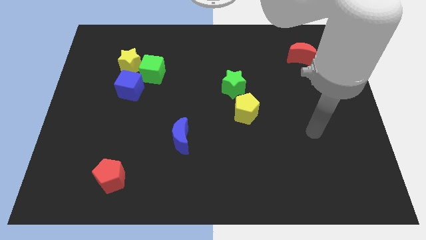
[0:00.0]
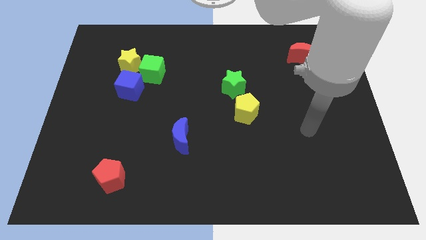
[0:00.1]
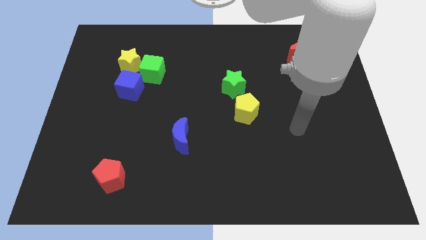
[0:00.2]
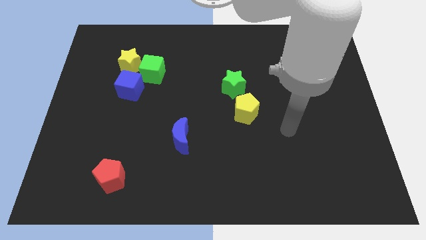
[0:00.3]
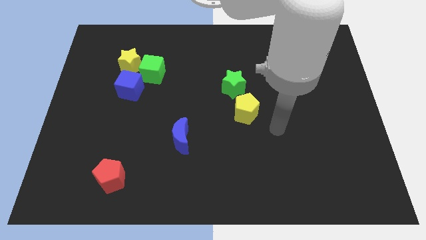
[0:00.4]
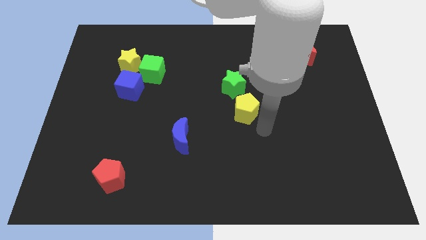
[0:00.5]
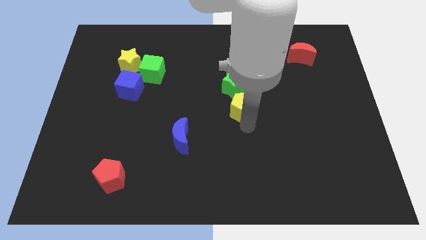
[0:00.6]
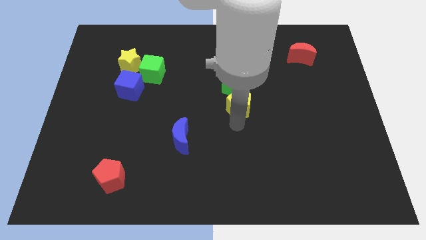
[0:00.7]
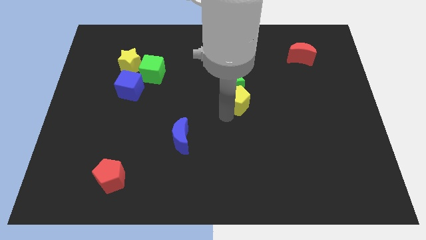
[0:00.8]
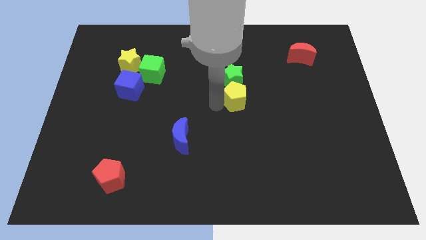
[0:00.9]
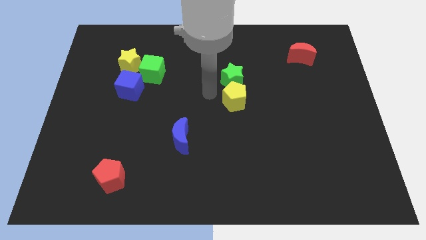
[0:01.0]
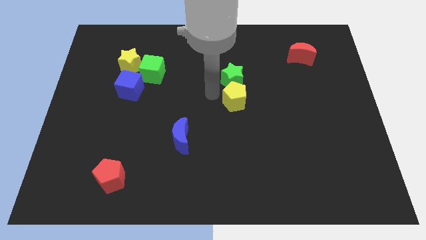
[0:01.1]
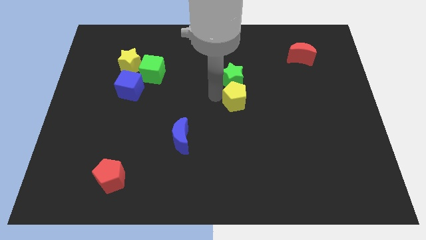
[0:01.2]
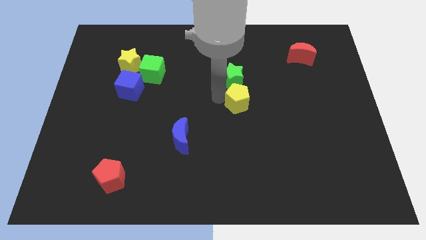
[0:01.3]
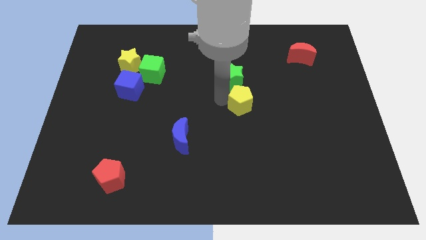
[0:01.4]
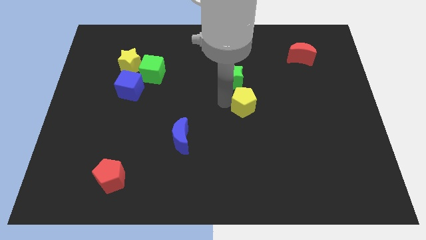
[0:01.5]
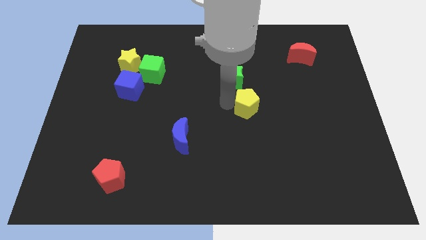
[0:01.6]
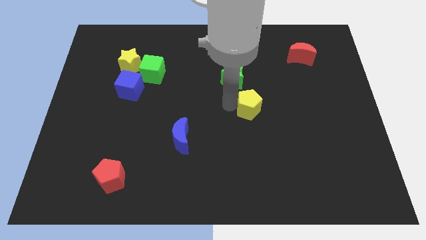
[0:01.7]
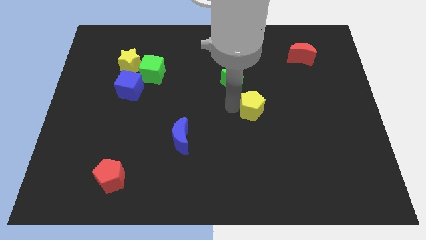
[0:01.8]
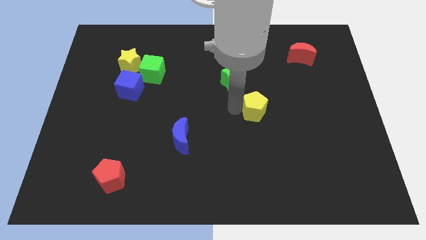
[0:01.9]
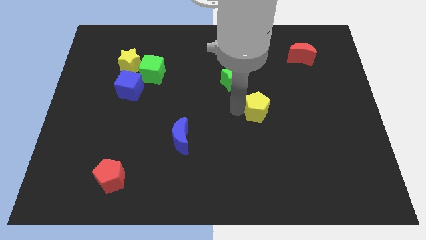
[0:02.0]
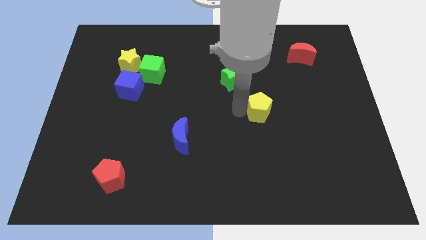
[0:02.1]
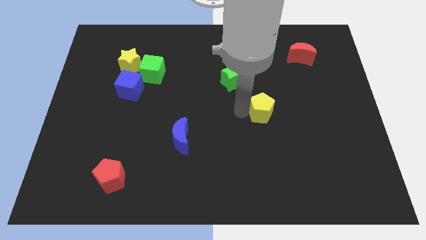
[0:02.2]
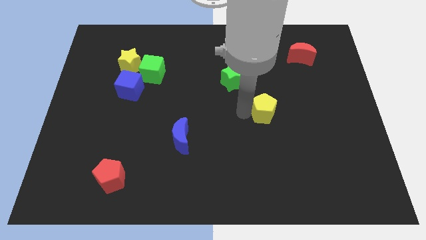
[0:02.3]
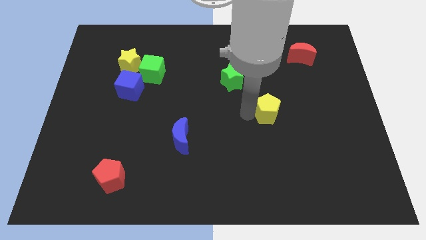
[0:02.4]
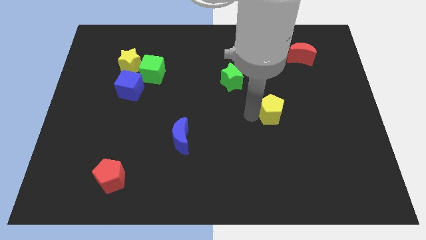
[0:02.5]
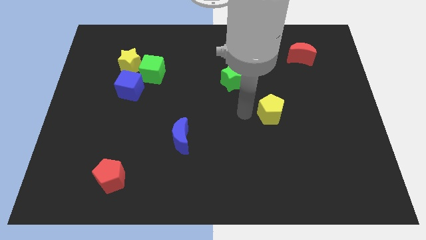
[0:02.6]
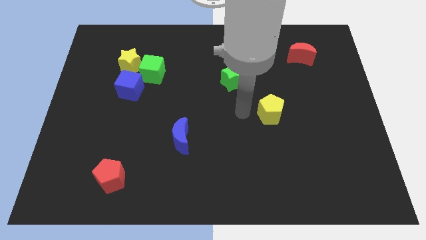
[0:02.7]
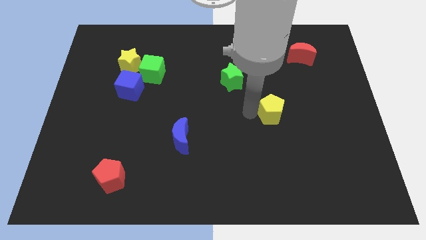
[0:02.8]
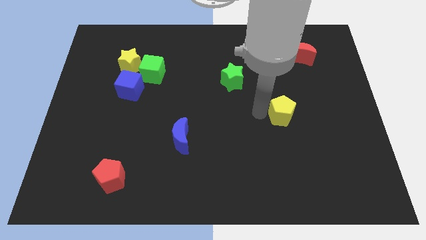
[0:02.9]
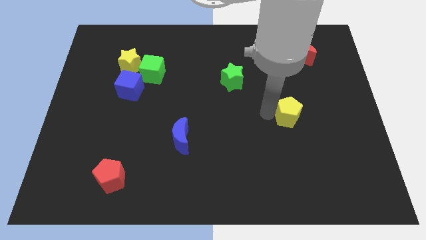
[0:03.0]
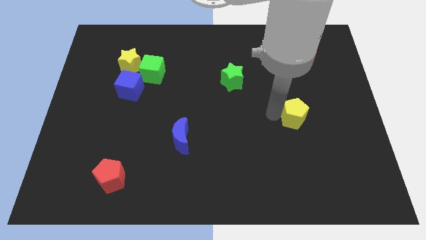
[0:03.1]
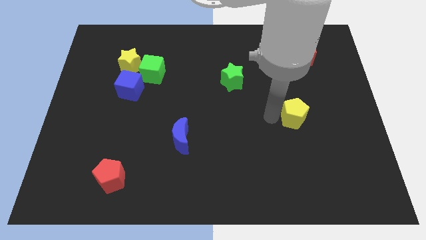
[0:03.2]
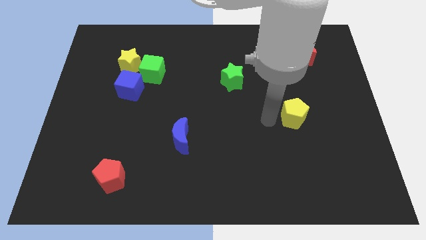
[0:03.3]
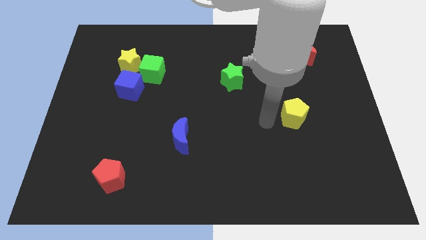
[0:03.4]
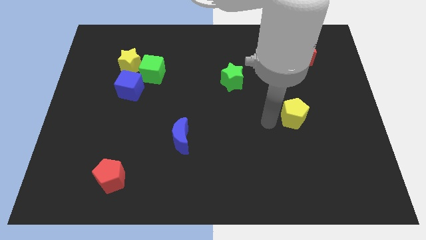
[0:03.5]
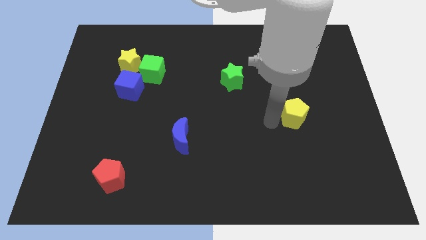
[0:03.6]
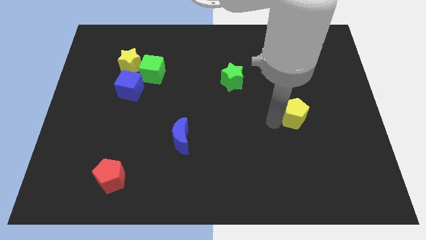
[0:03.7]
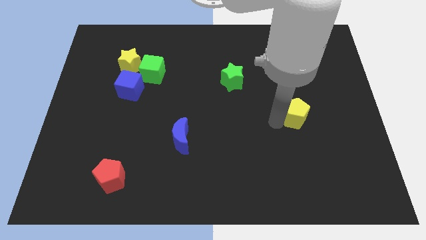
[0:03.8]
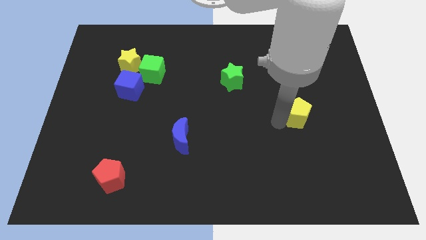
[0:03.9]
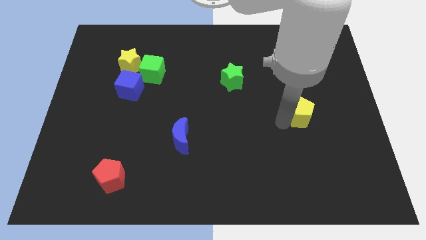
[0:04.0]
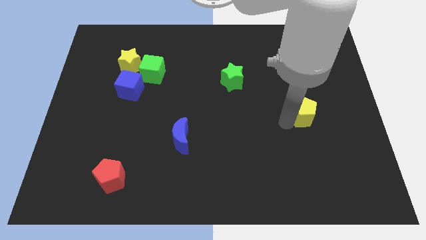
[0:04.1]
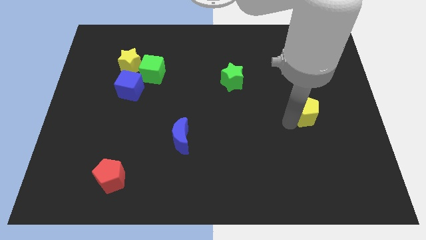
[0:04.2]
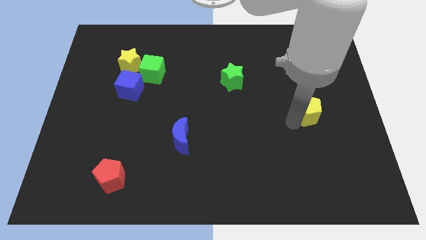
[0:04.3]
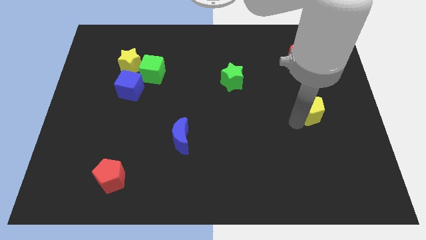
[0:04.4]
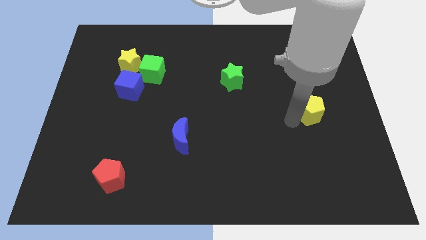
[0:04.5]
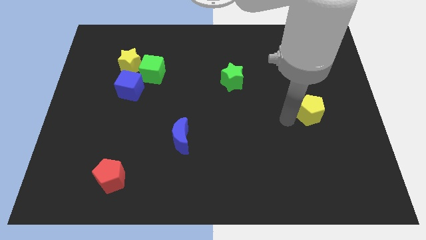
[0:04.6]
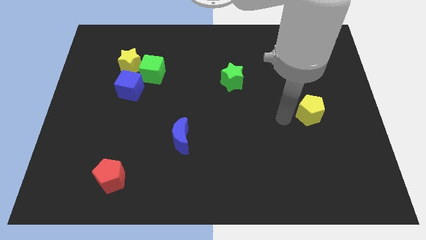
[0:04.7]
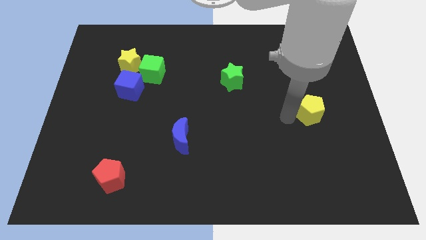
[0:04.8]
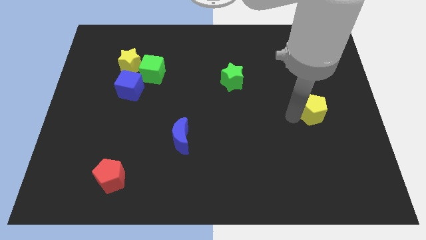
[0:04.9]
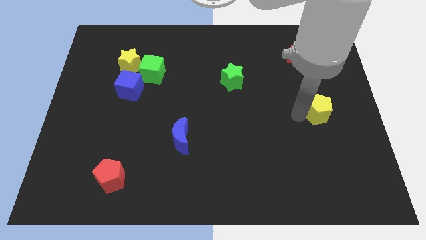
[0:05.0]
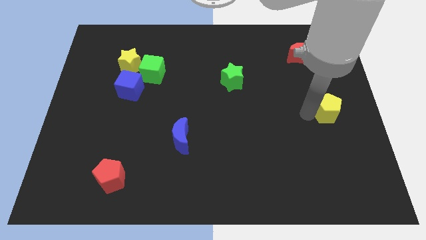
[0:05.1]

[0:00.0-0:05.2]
push the yellow pentagon to the center right
